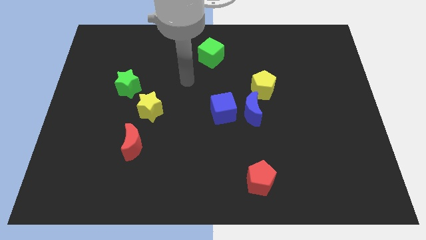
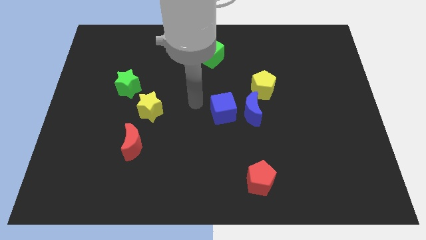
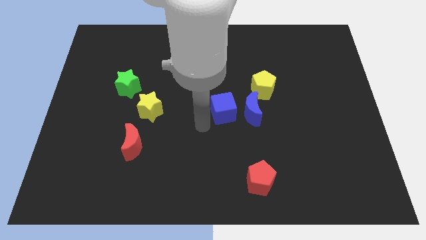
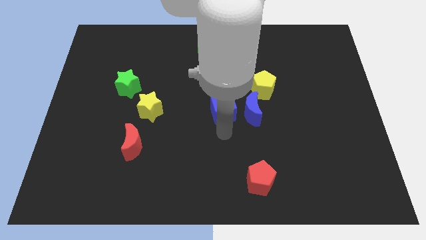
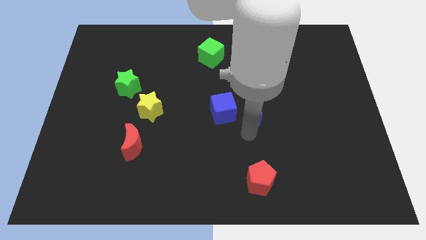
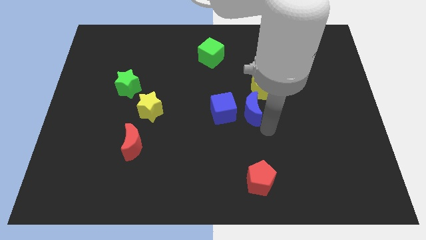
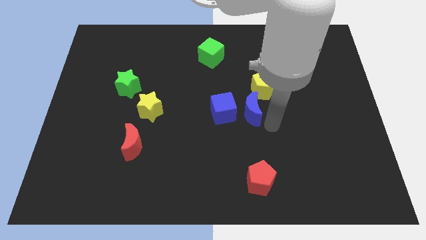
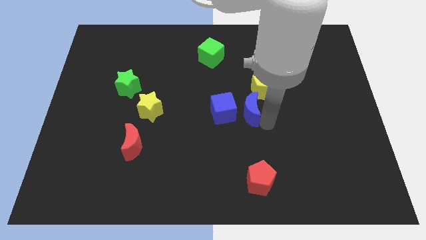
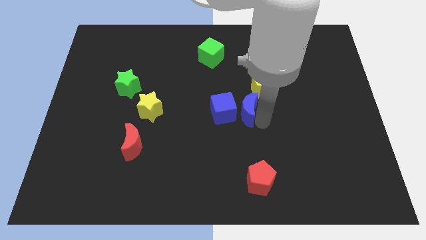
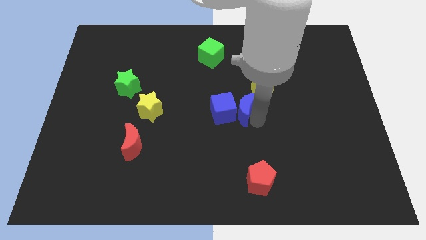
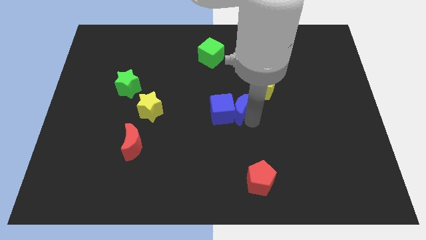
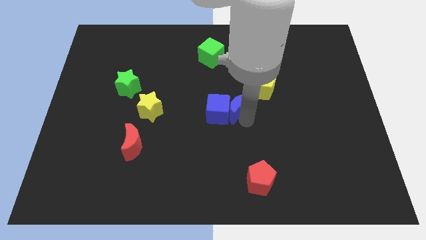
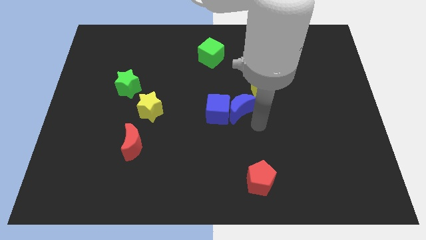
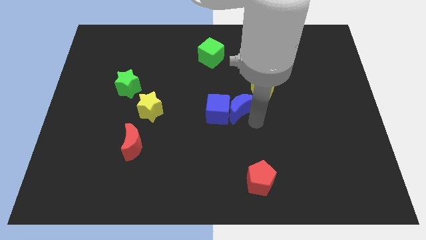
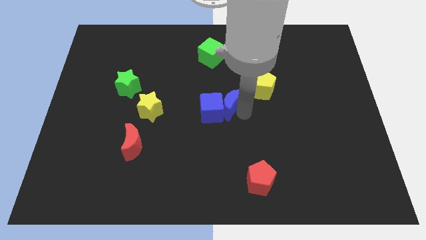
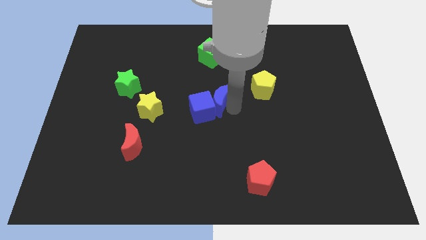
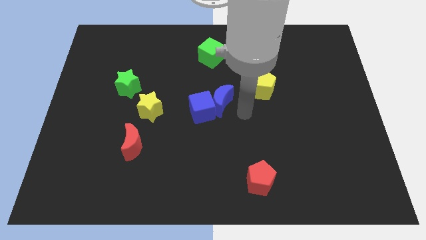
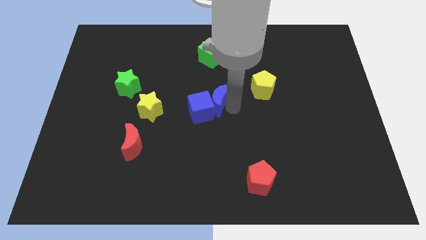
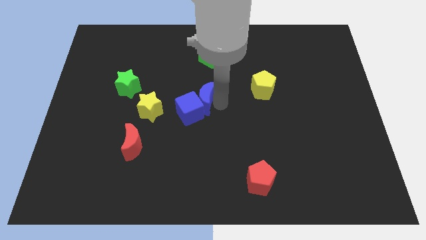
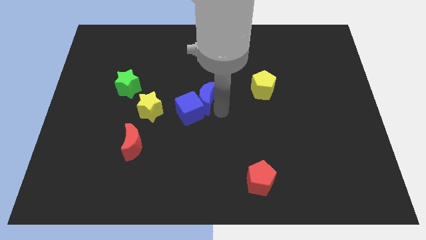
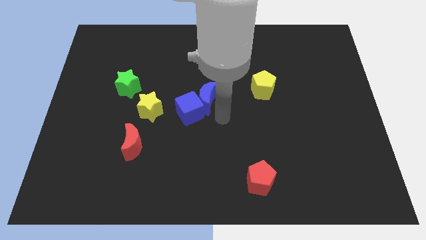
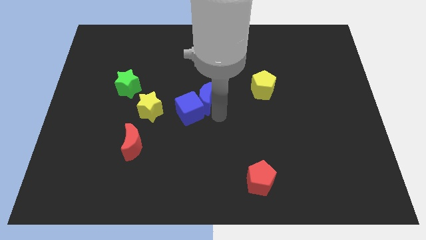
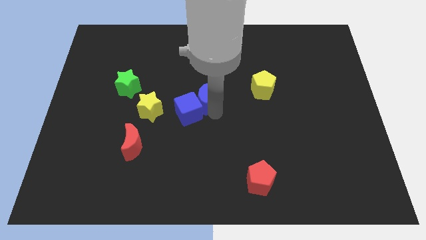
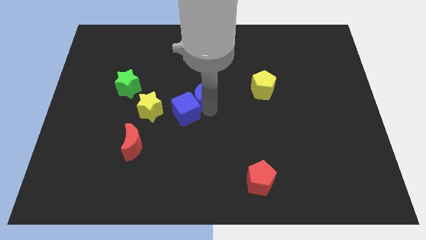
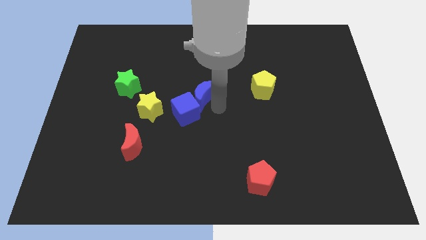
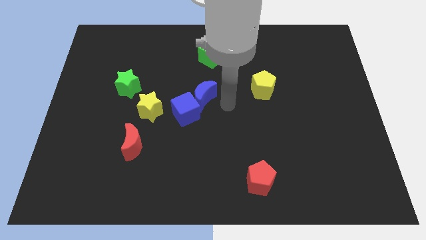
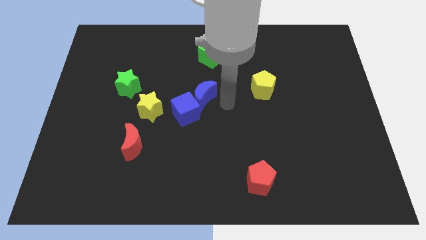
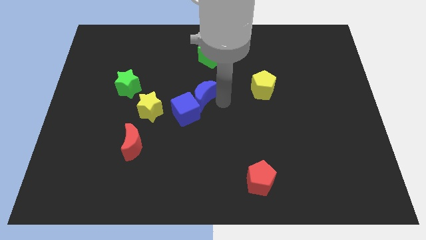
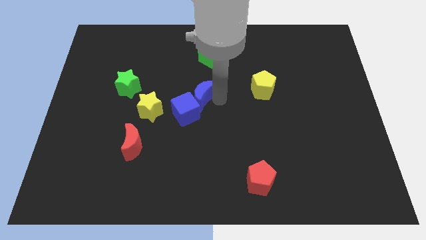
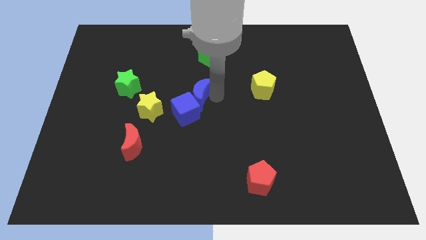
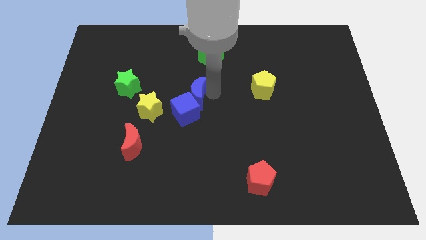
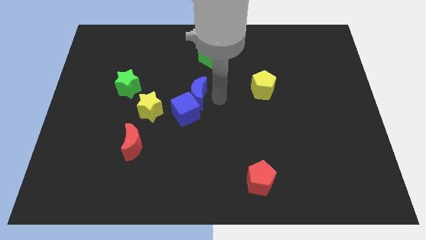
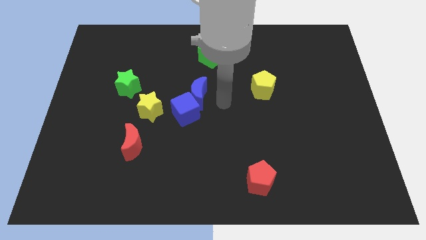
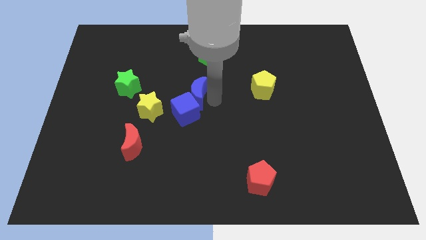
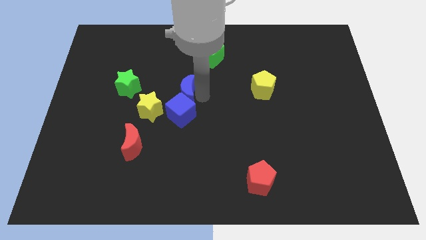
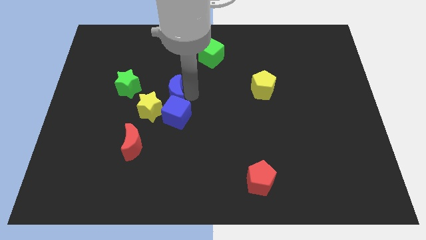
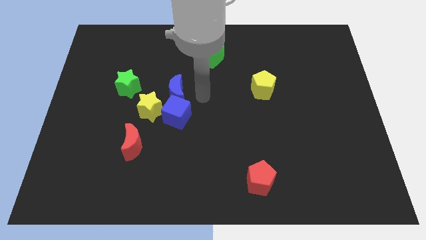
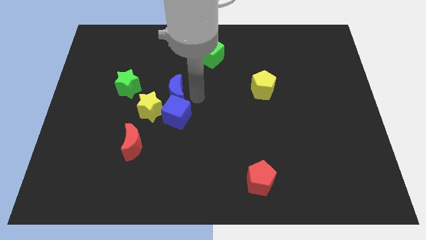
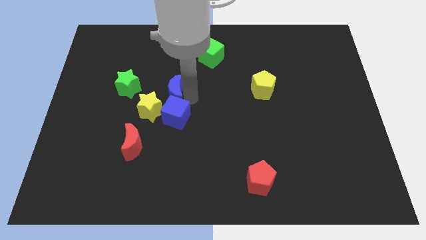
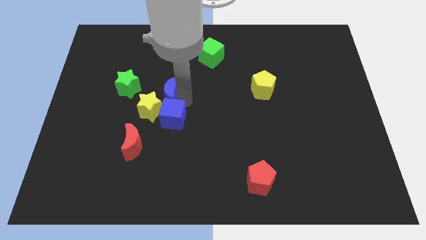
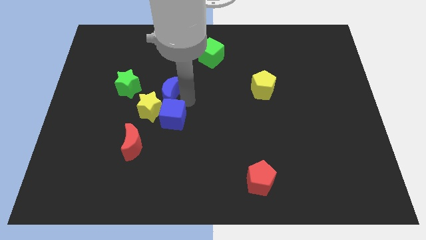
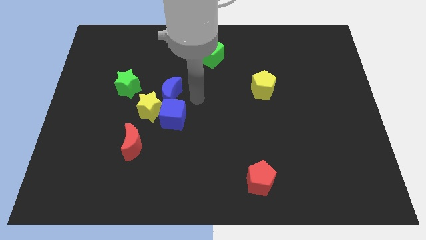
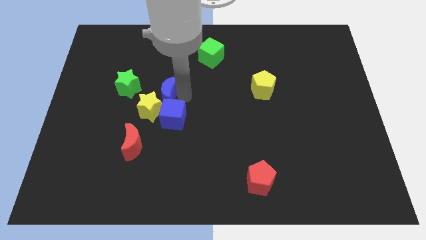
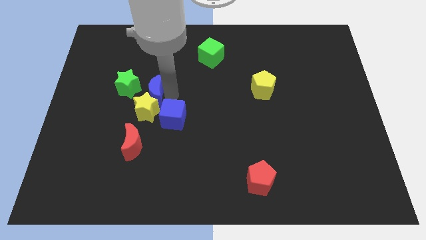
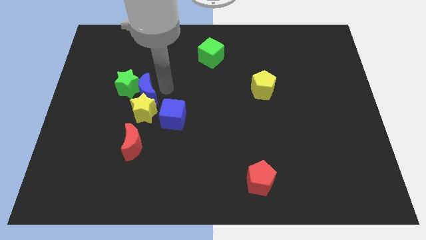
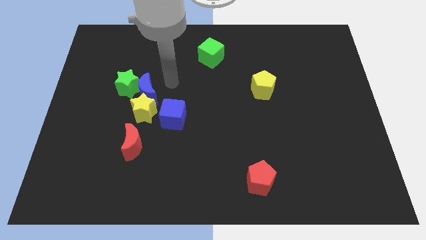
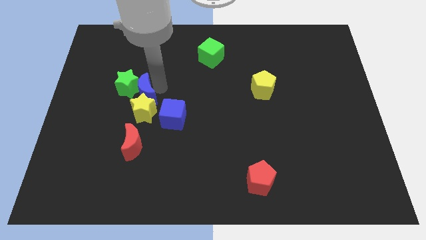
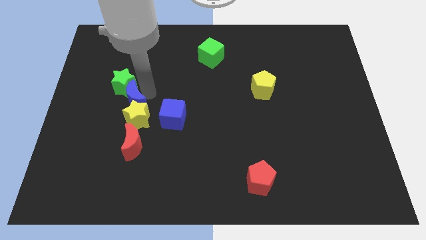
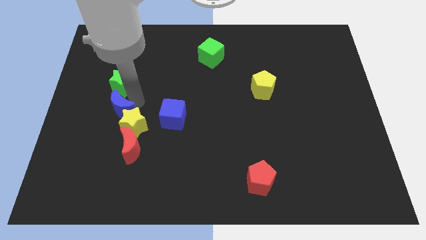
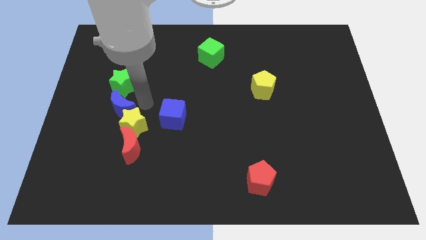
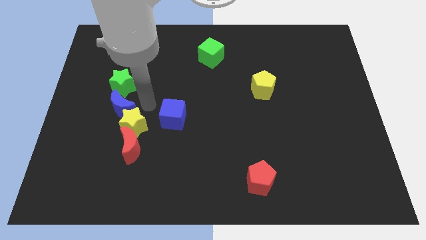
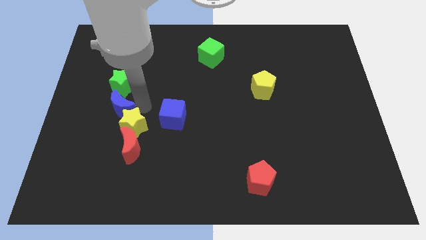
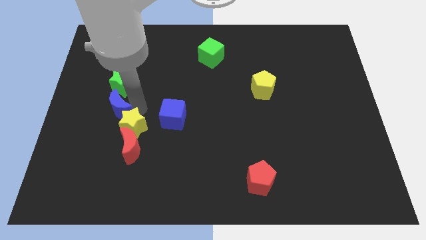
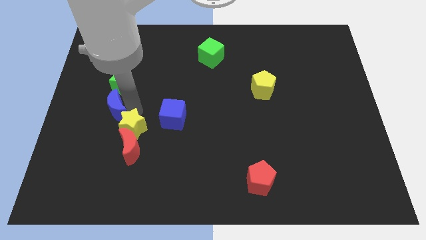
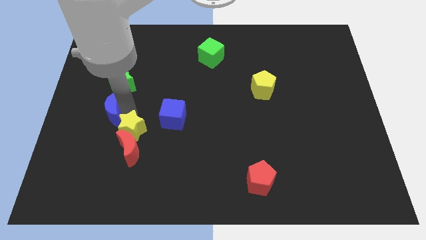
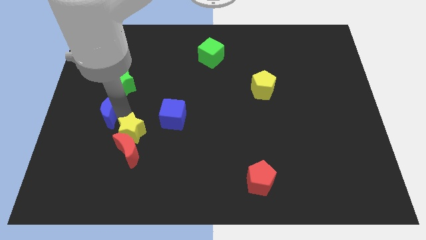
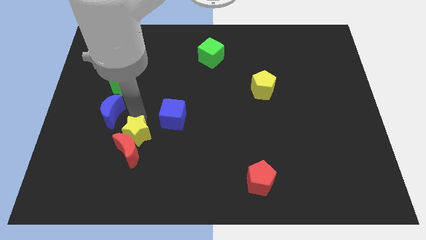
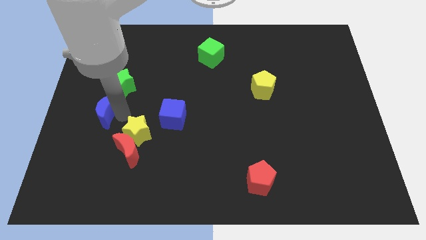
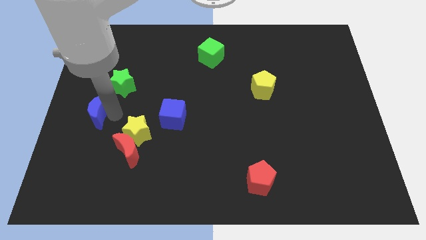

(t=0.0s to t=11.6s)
push the blue moon to the center left

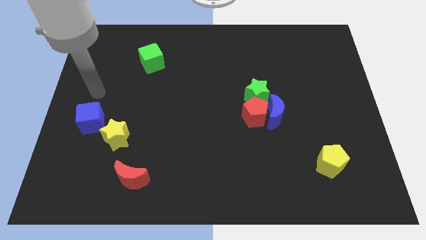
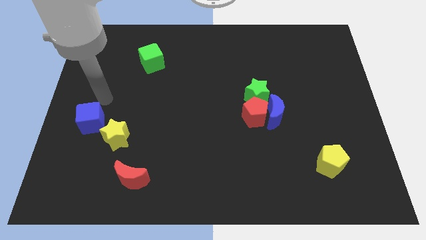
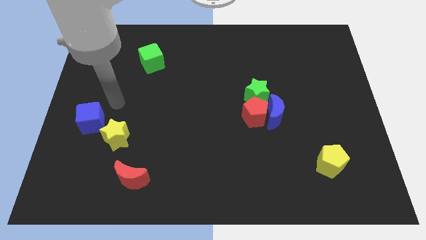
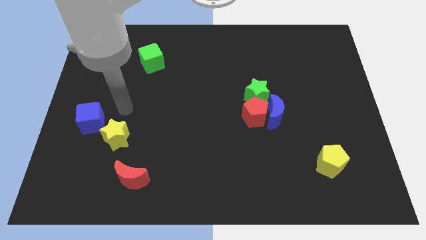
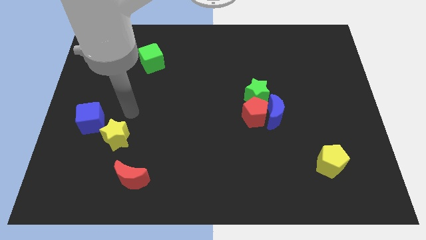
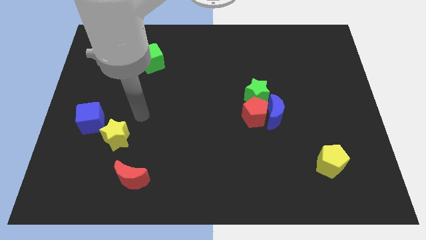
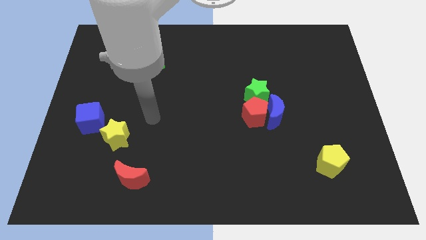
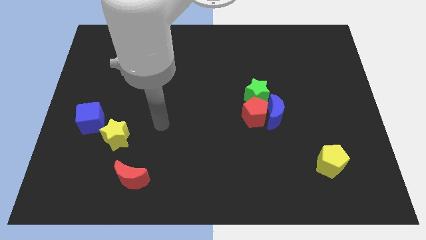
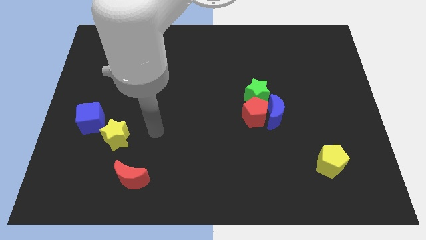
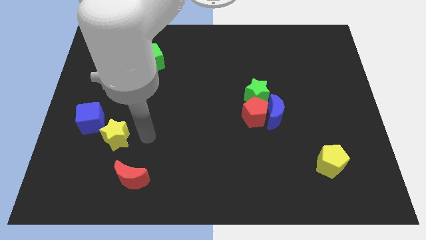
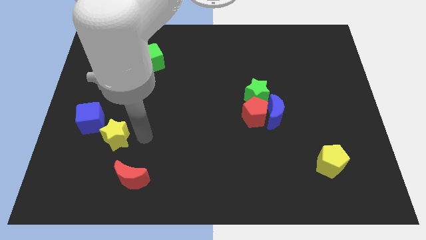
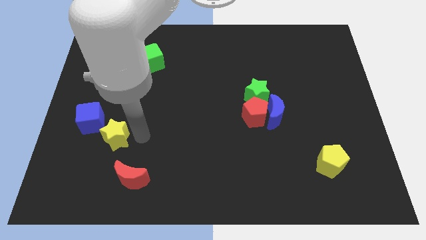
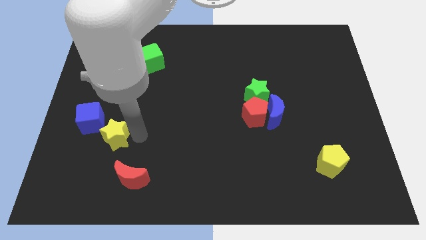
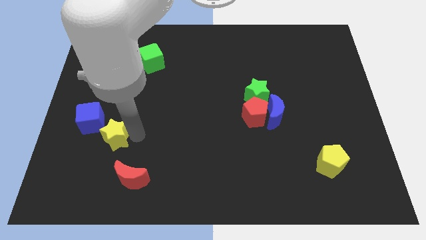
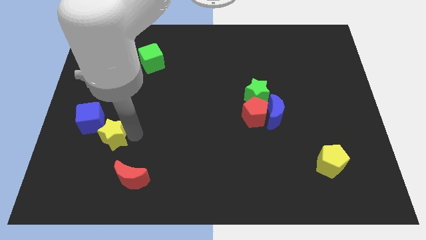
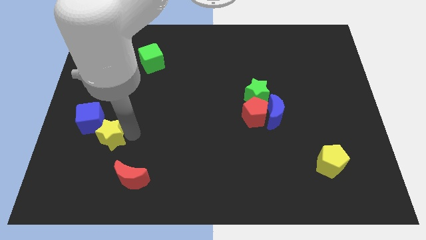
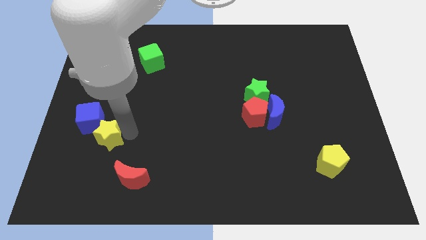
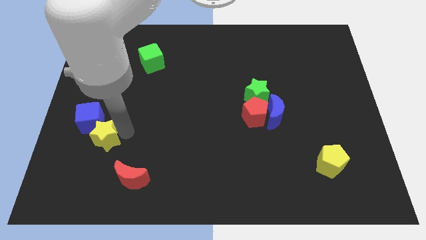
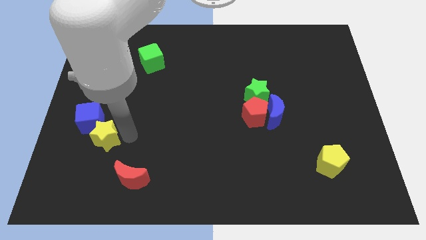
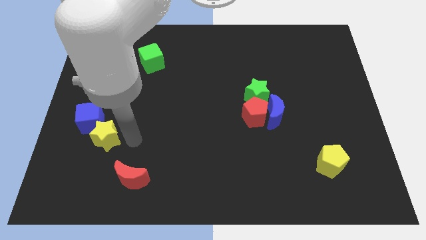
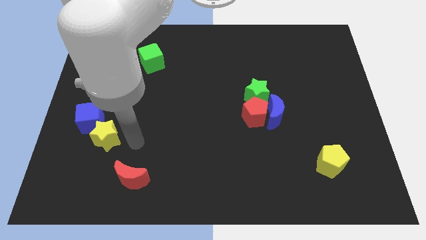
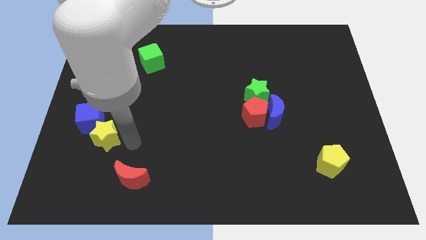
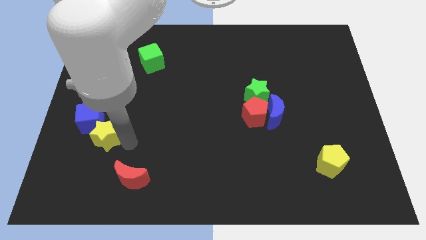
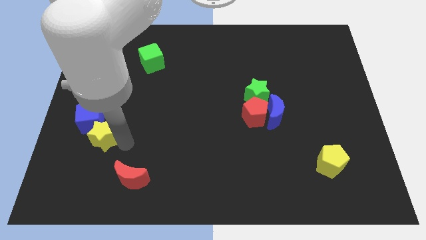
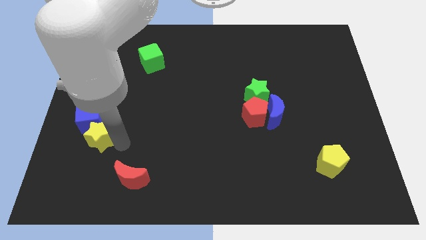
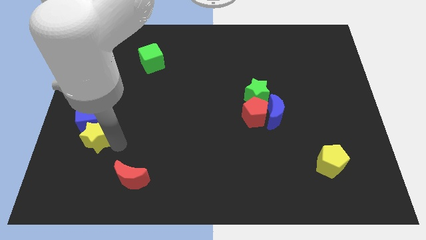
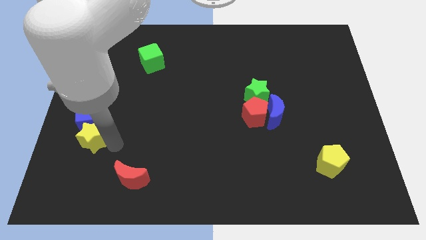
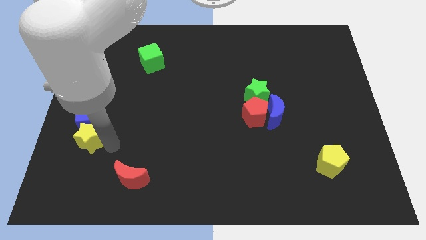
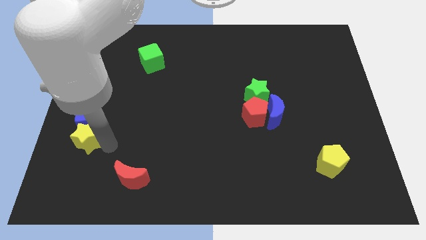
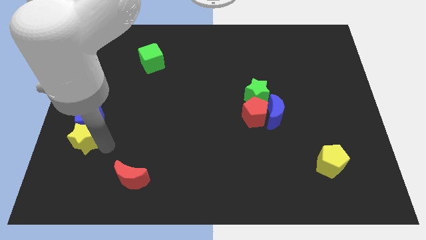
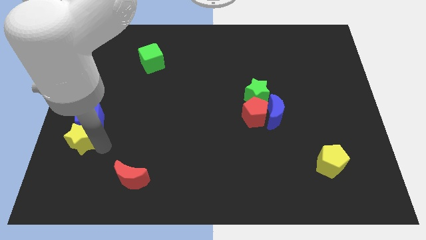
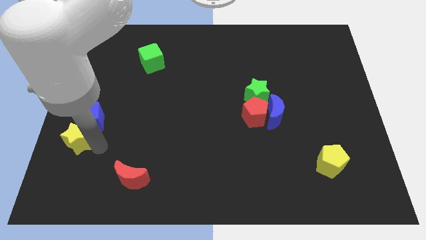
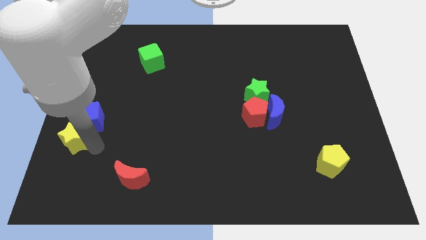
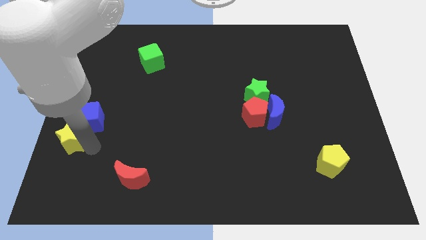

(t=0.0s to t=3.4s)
slide the yellow star to the center left
